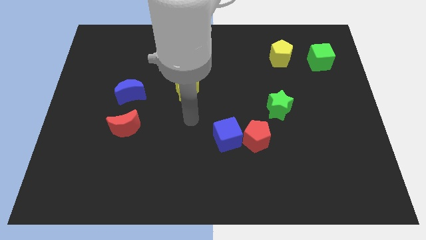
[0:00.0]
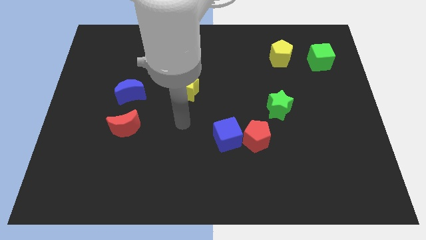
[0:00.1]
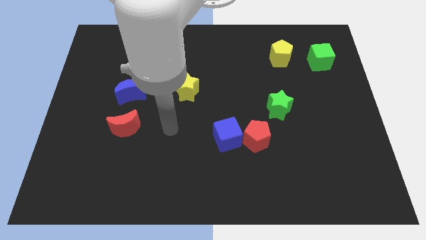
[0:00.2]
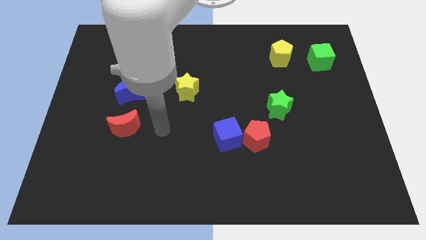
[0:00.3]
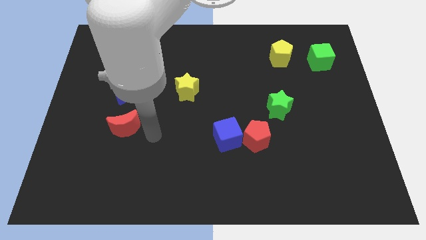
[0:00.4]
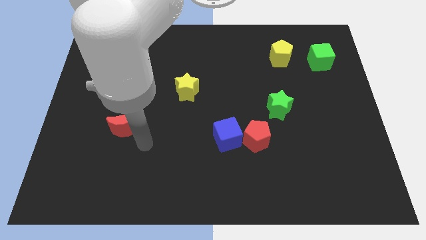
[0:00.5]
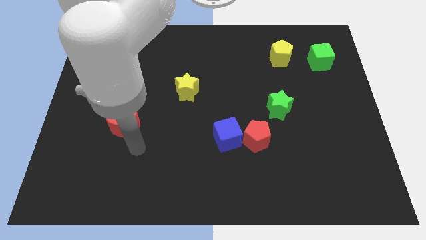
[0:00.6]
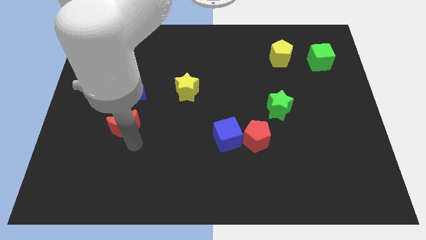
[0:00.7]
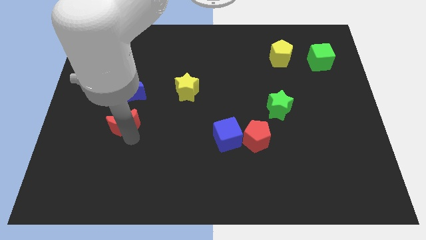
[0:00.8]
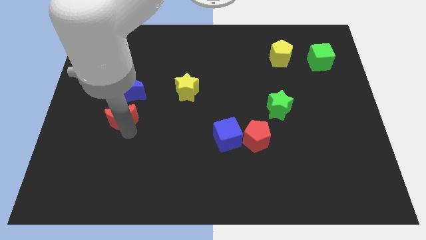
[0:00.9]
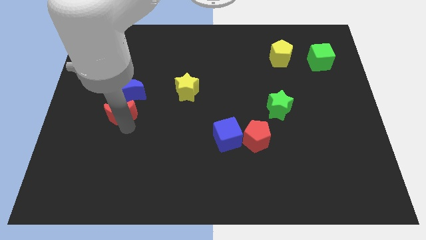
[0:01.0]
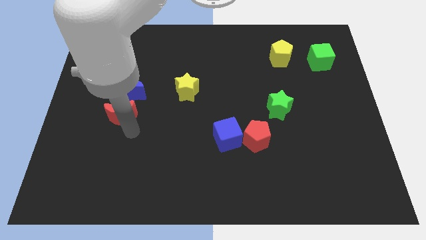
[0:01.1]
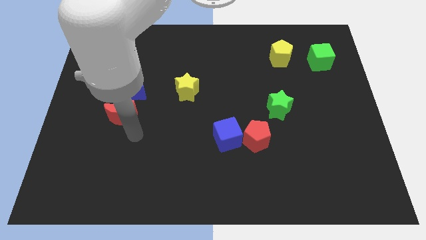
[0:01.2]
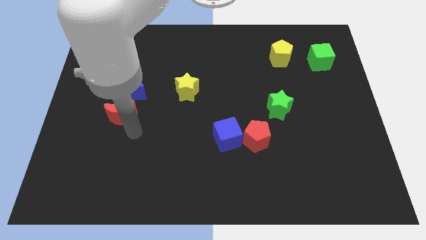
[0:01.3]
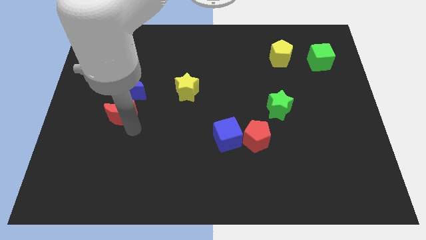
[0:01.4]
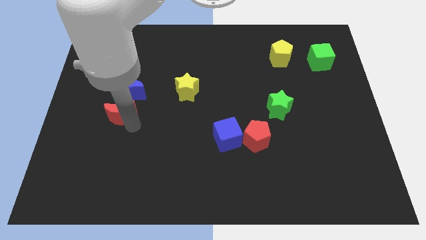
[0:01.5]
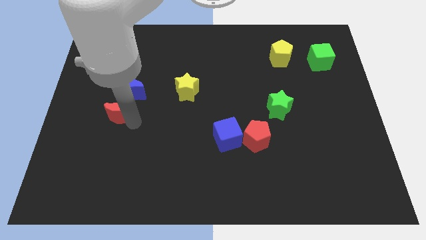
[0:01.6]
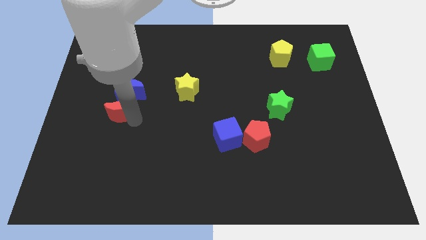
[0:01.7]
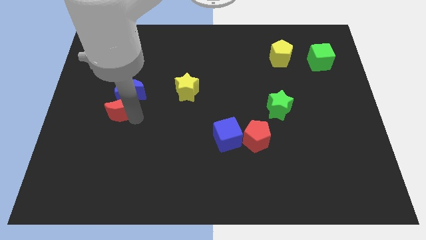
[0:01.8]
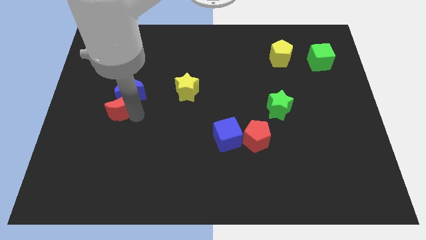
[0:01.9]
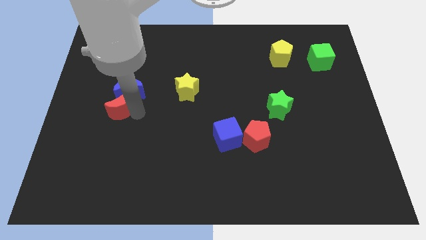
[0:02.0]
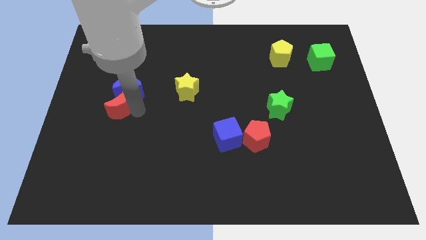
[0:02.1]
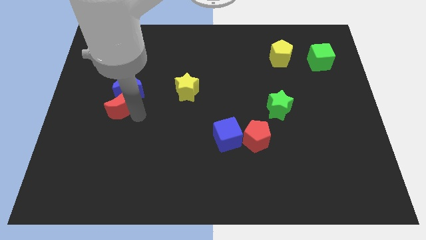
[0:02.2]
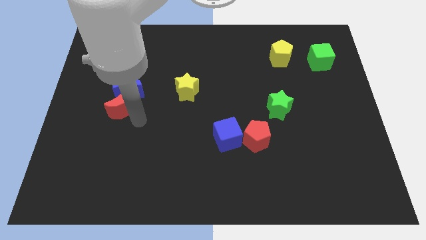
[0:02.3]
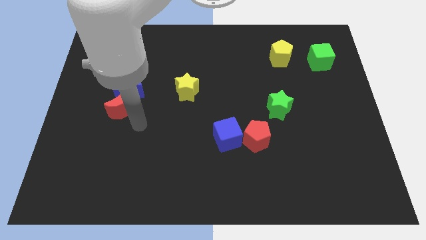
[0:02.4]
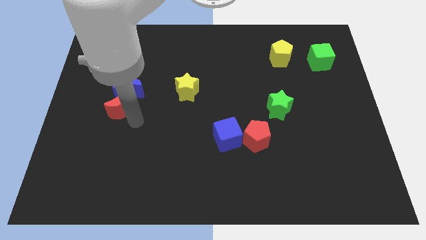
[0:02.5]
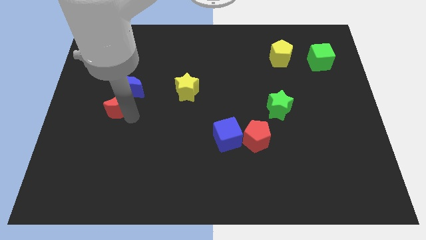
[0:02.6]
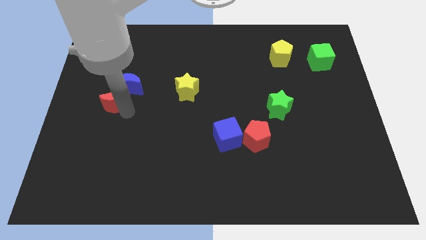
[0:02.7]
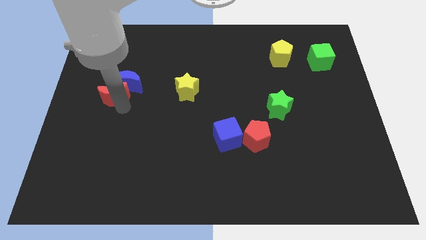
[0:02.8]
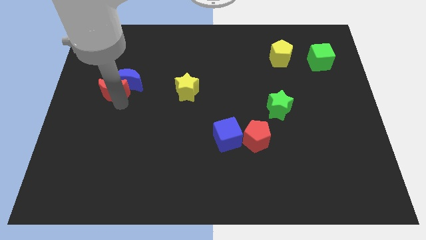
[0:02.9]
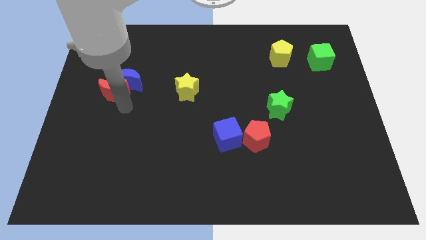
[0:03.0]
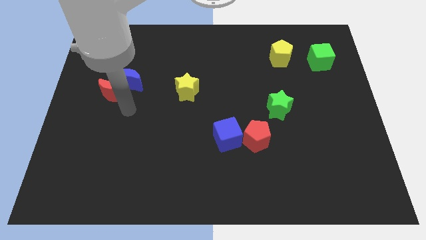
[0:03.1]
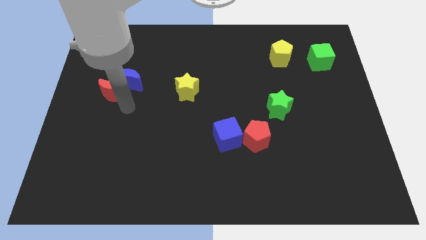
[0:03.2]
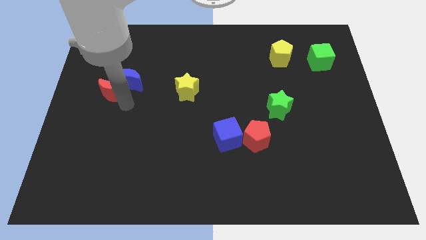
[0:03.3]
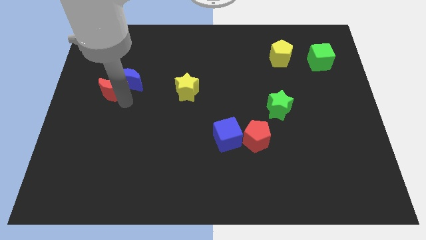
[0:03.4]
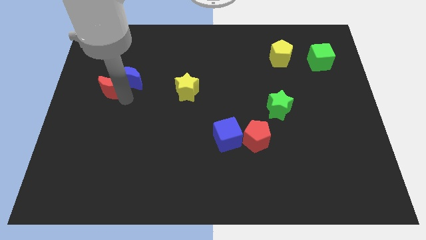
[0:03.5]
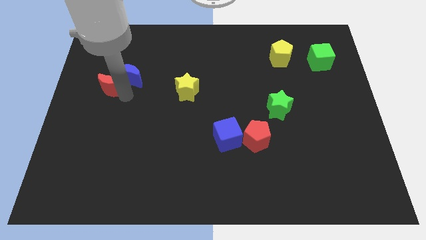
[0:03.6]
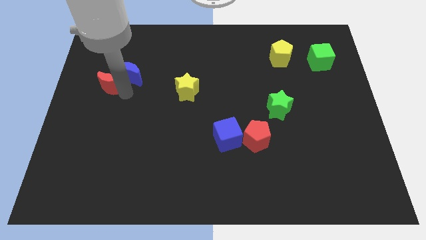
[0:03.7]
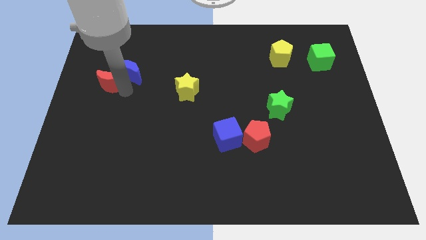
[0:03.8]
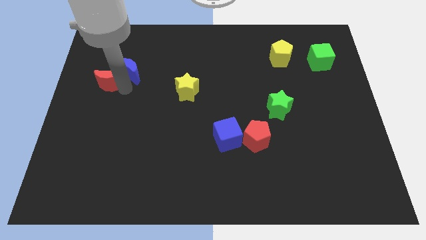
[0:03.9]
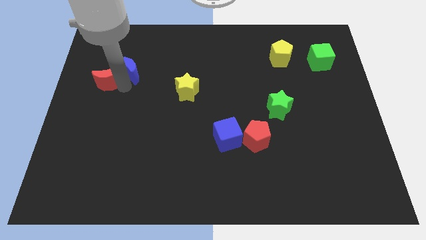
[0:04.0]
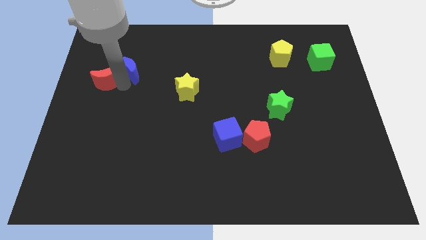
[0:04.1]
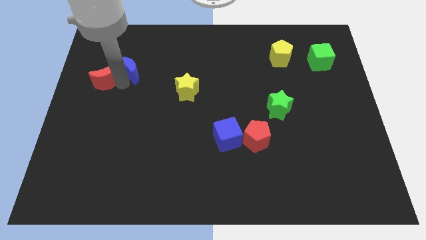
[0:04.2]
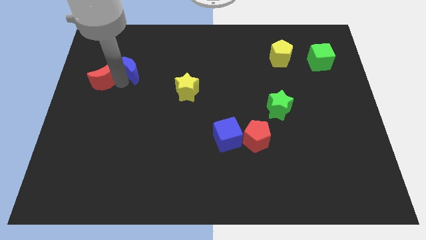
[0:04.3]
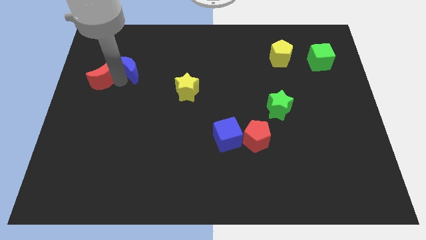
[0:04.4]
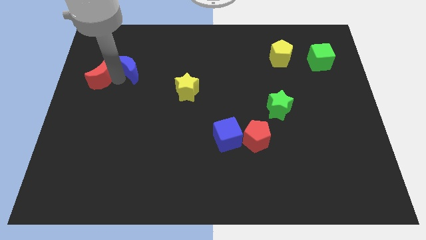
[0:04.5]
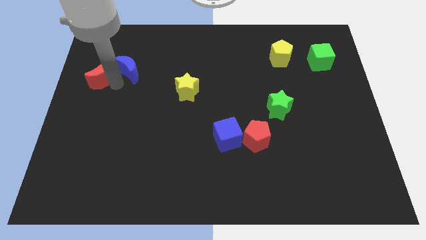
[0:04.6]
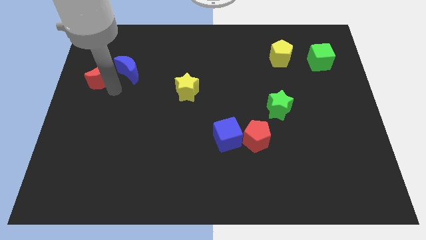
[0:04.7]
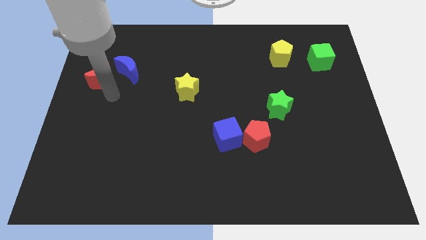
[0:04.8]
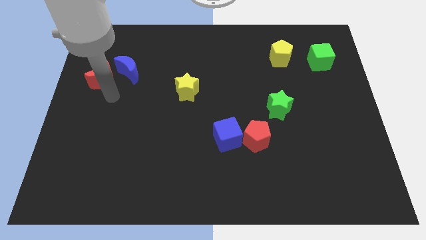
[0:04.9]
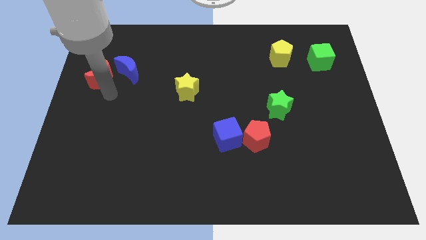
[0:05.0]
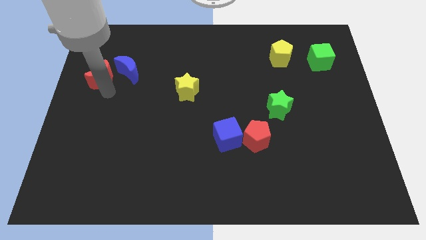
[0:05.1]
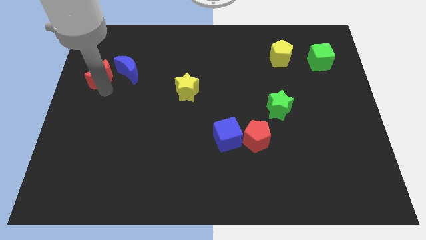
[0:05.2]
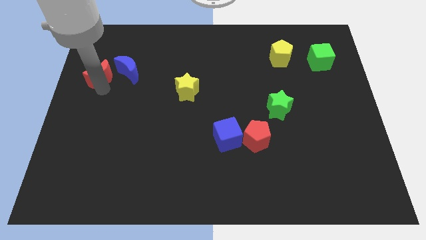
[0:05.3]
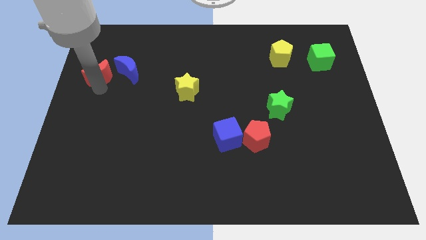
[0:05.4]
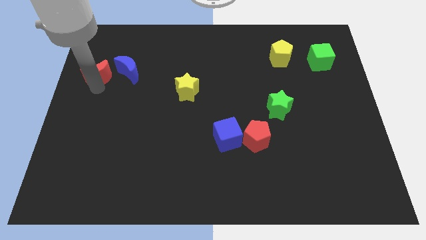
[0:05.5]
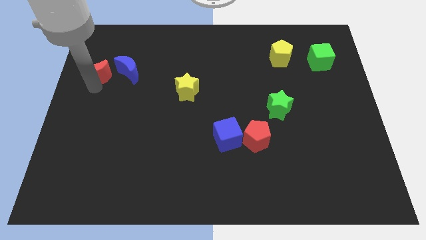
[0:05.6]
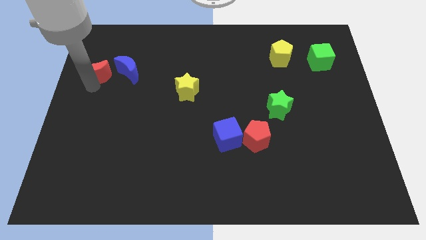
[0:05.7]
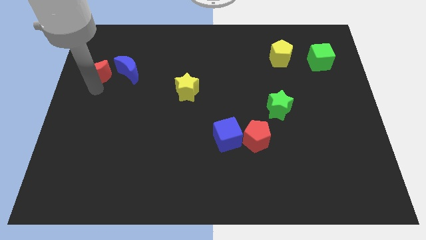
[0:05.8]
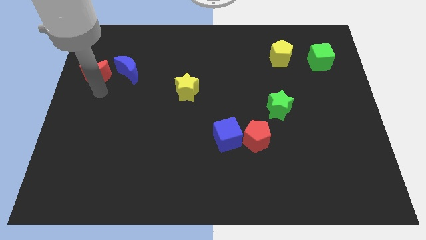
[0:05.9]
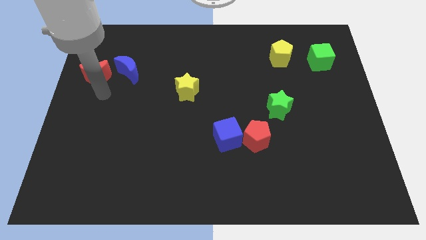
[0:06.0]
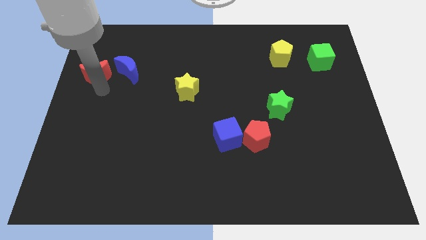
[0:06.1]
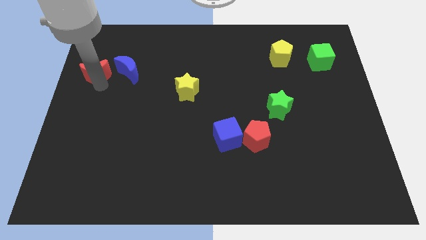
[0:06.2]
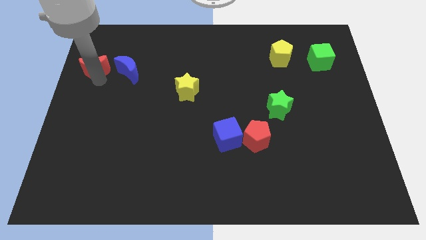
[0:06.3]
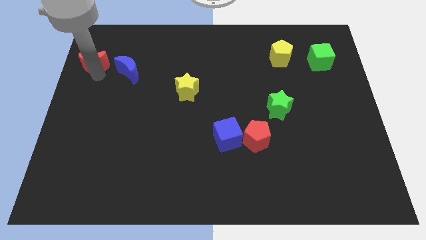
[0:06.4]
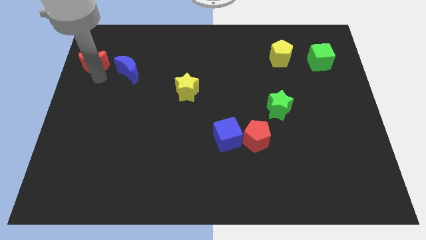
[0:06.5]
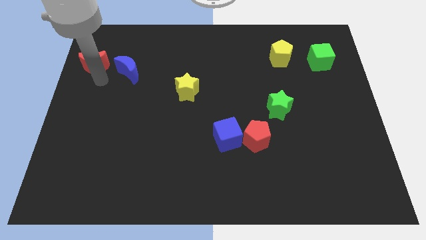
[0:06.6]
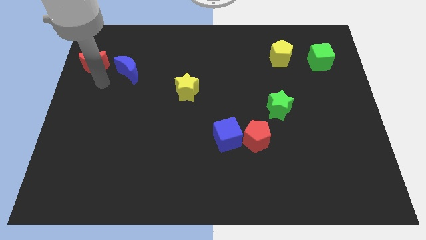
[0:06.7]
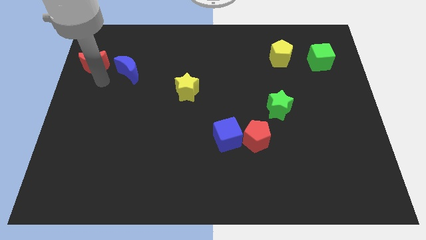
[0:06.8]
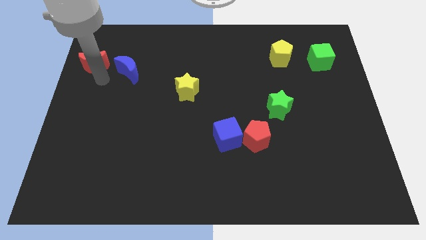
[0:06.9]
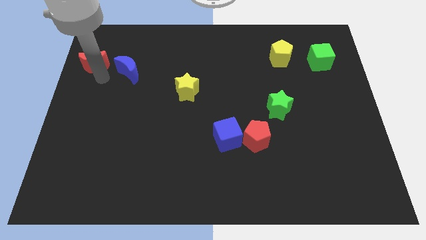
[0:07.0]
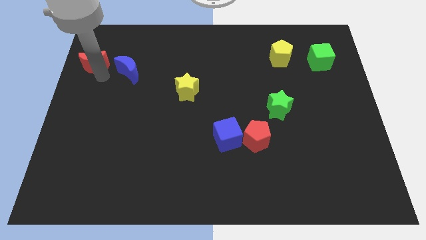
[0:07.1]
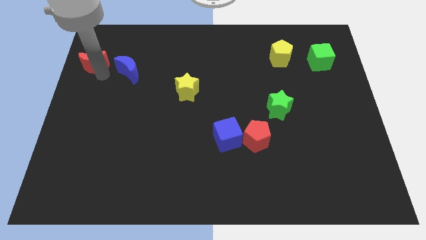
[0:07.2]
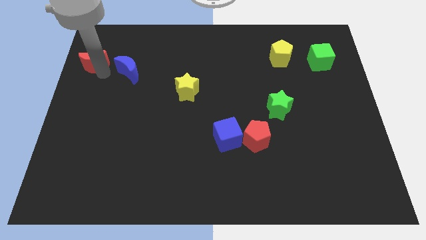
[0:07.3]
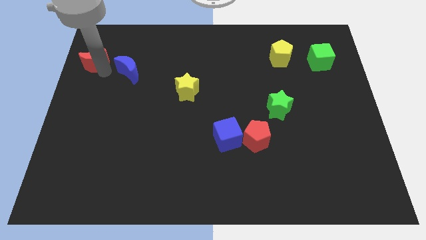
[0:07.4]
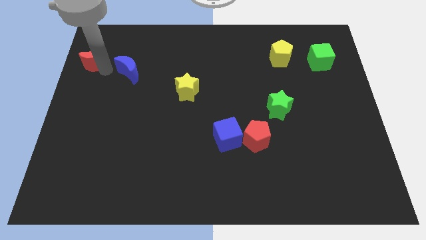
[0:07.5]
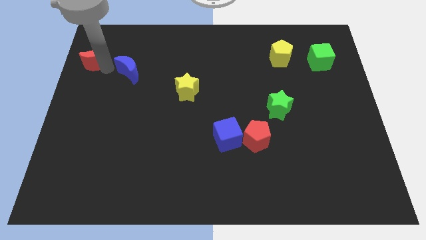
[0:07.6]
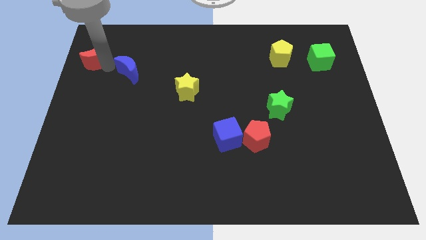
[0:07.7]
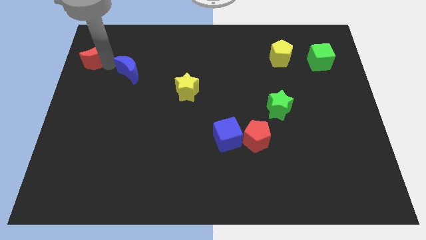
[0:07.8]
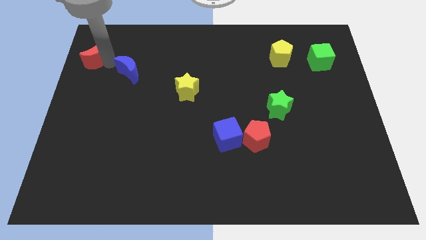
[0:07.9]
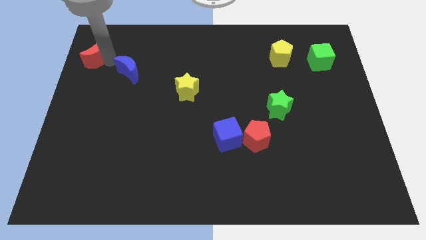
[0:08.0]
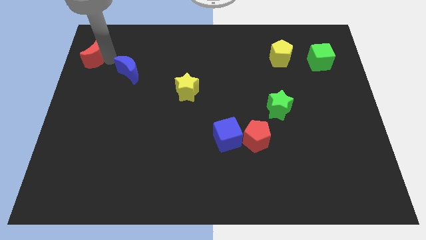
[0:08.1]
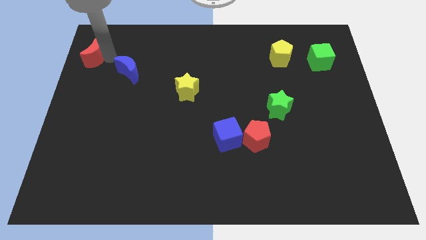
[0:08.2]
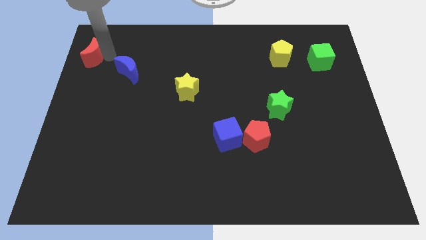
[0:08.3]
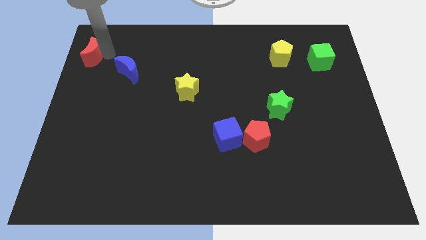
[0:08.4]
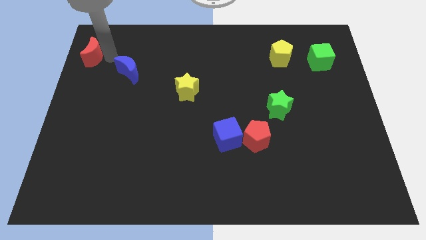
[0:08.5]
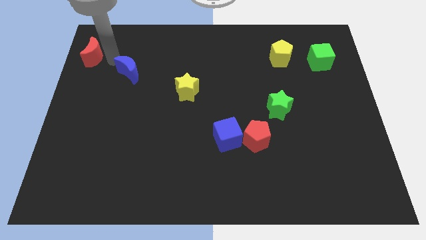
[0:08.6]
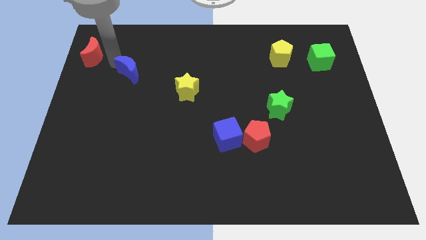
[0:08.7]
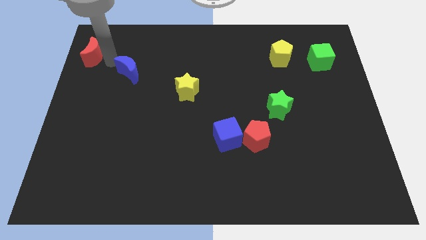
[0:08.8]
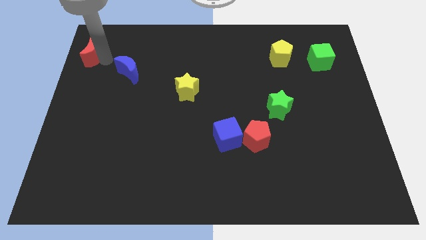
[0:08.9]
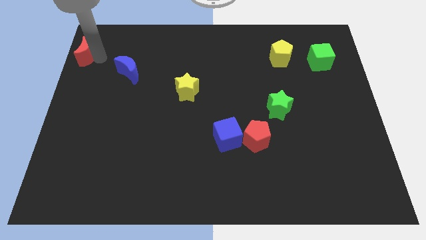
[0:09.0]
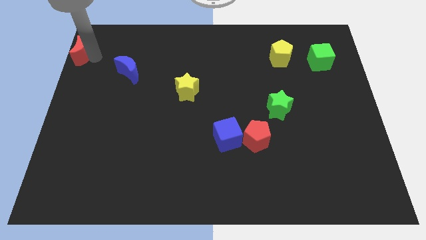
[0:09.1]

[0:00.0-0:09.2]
put the red moon to the top left
